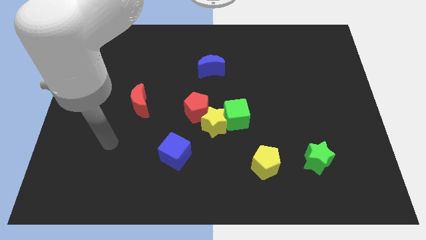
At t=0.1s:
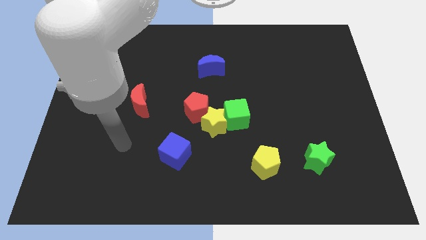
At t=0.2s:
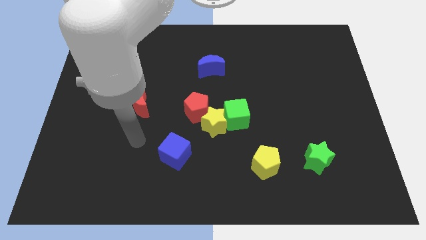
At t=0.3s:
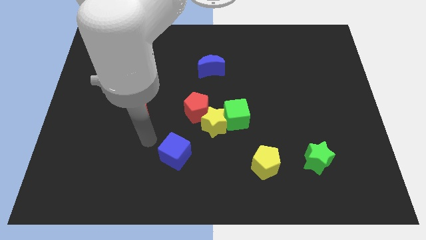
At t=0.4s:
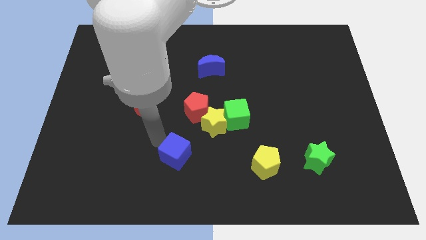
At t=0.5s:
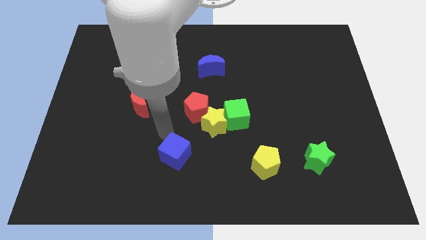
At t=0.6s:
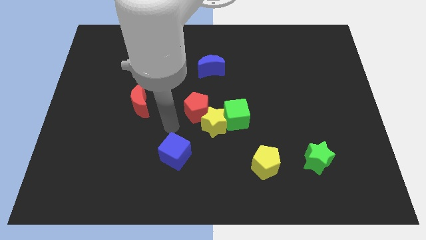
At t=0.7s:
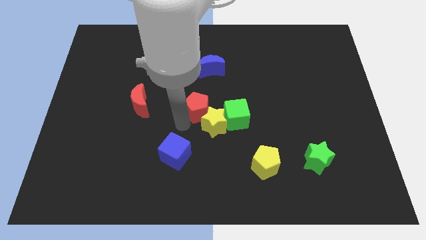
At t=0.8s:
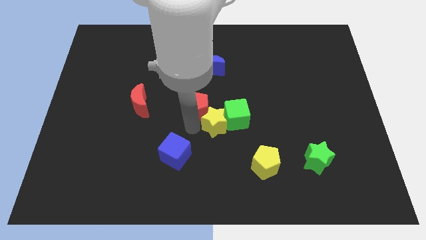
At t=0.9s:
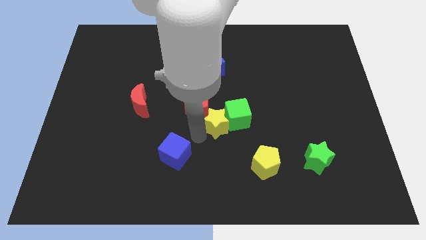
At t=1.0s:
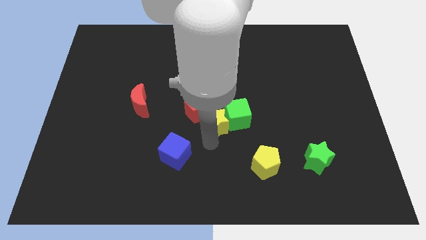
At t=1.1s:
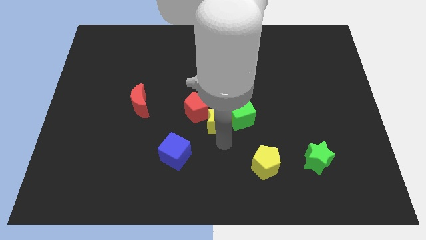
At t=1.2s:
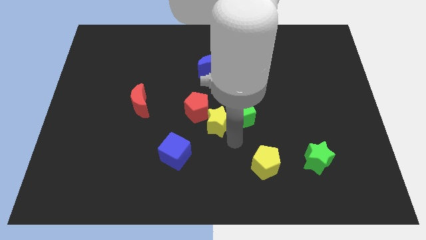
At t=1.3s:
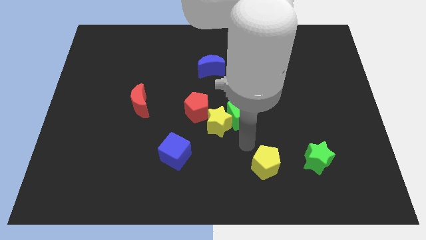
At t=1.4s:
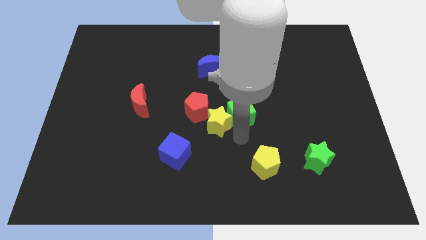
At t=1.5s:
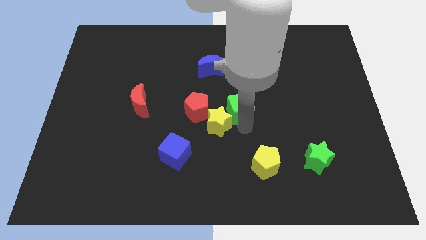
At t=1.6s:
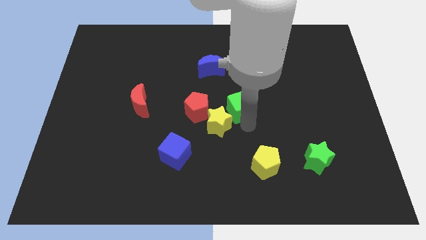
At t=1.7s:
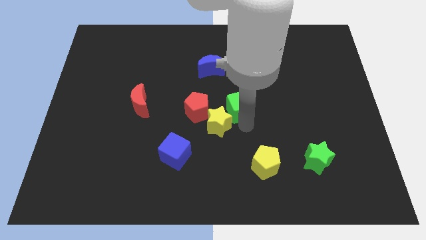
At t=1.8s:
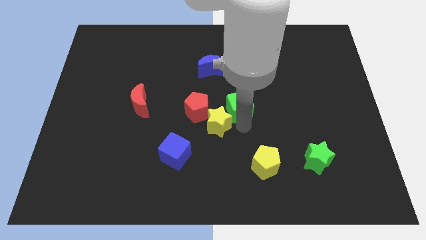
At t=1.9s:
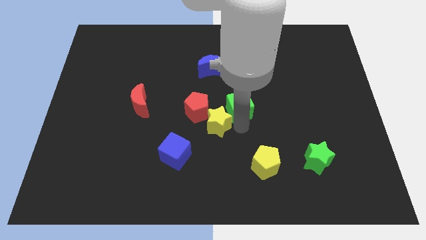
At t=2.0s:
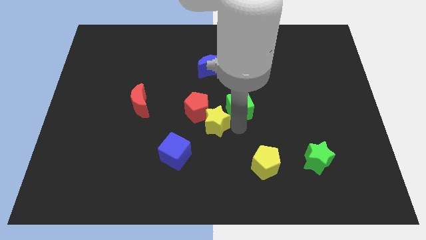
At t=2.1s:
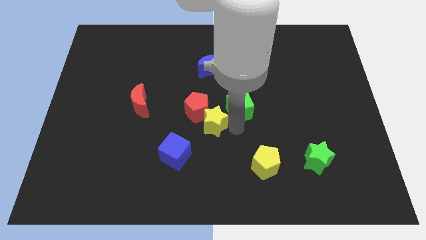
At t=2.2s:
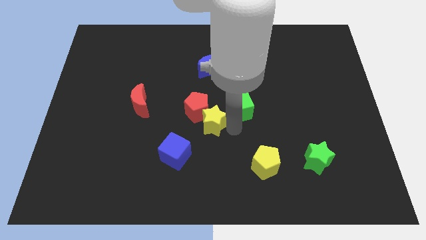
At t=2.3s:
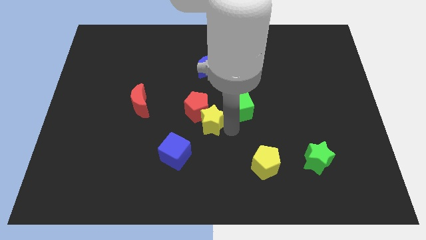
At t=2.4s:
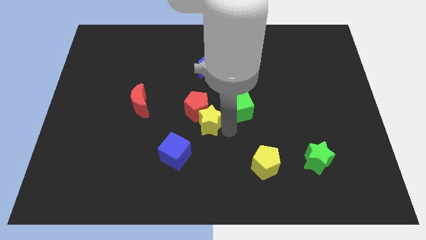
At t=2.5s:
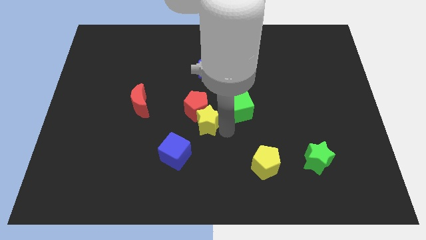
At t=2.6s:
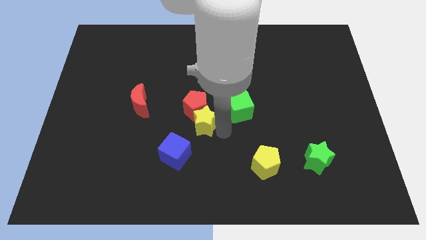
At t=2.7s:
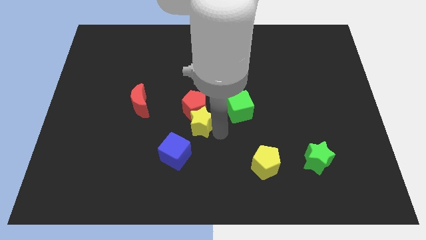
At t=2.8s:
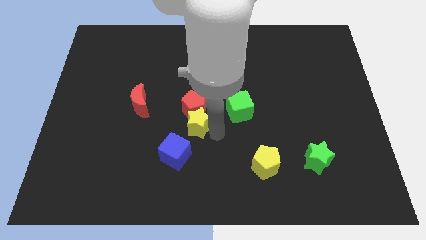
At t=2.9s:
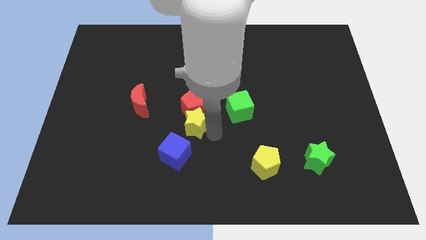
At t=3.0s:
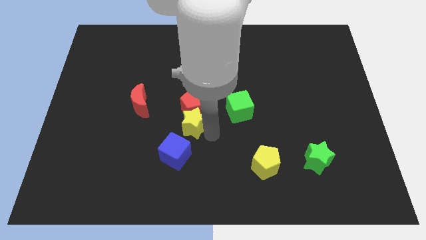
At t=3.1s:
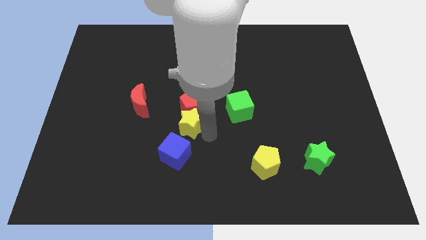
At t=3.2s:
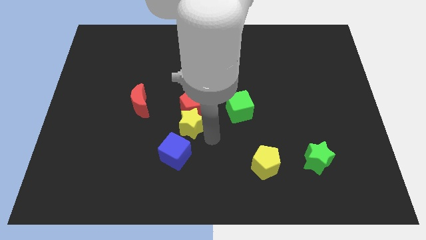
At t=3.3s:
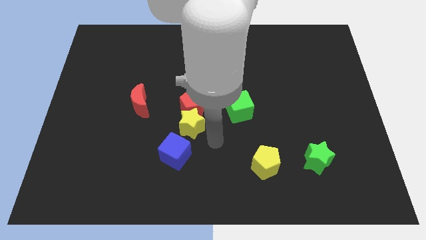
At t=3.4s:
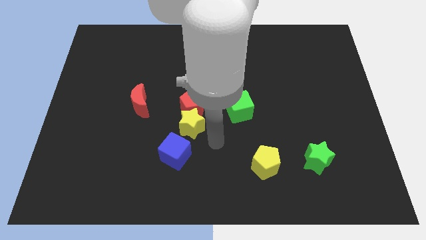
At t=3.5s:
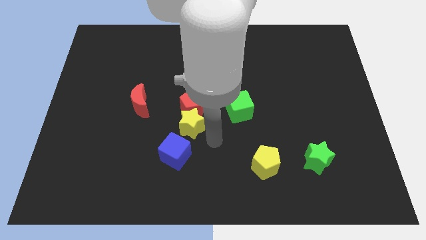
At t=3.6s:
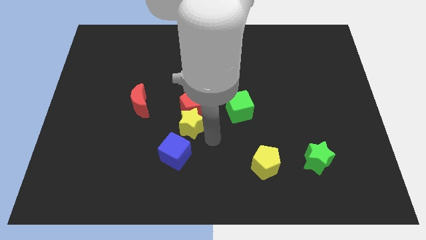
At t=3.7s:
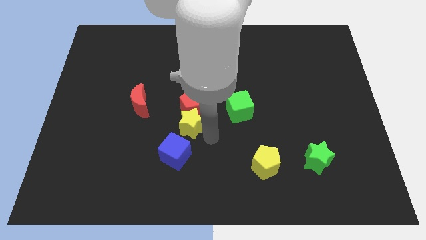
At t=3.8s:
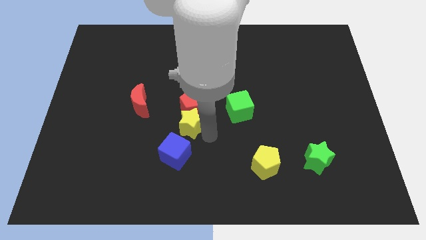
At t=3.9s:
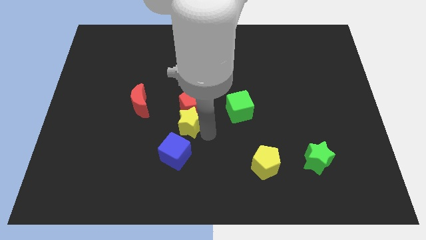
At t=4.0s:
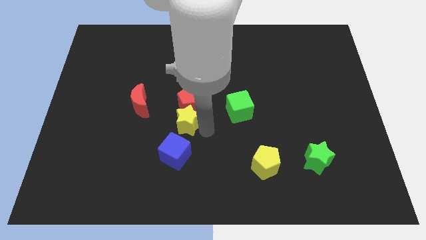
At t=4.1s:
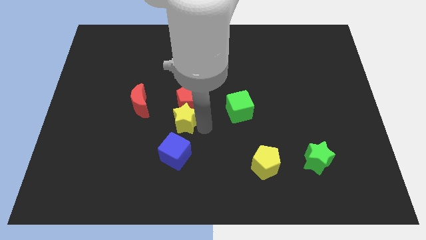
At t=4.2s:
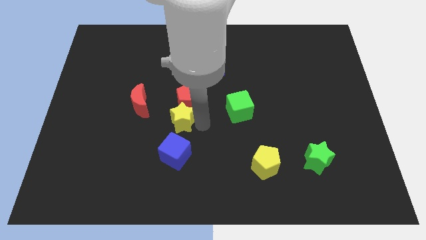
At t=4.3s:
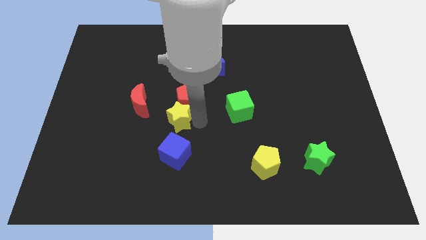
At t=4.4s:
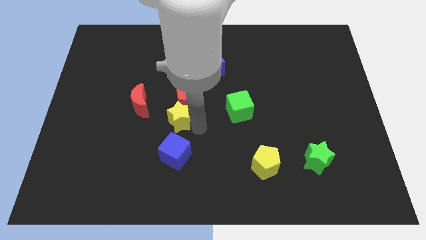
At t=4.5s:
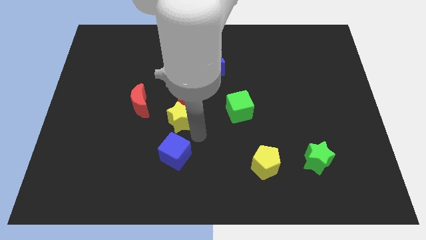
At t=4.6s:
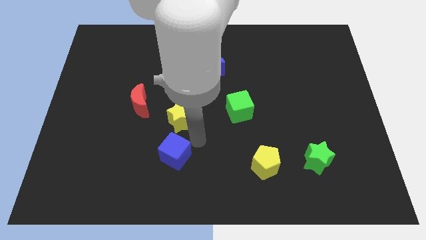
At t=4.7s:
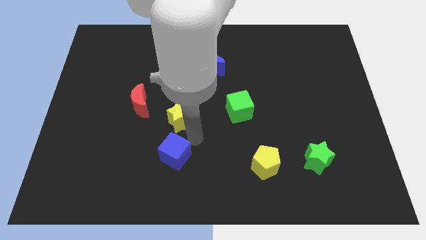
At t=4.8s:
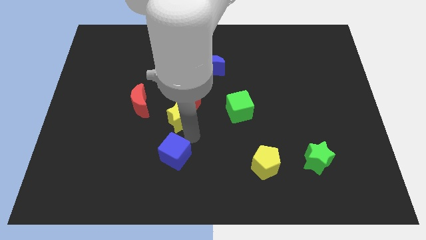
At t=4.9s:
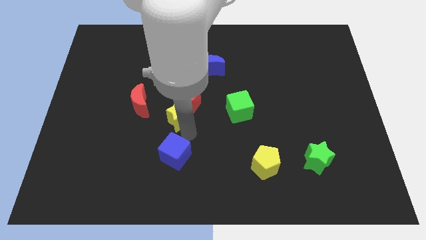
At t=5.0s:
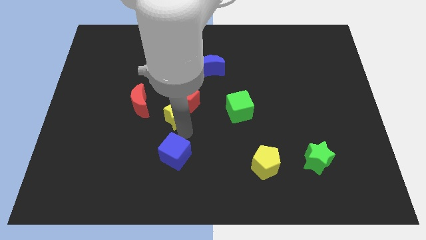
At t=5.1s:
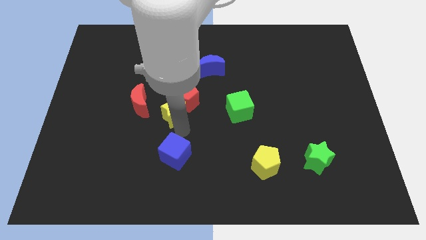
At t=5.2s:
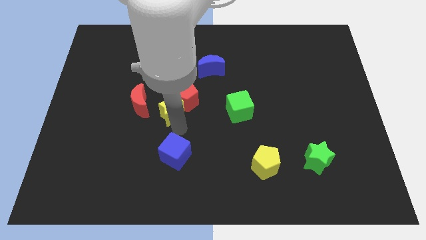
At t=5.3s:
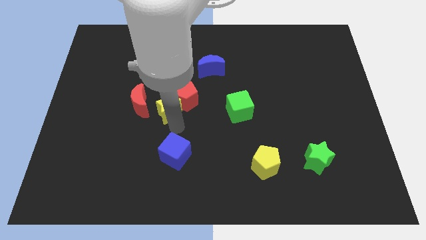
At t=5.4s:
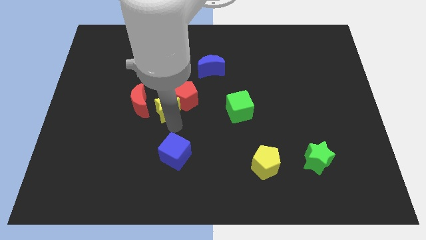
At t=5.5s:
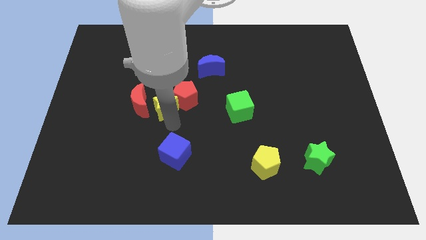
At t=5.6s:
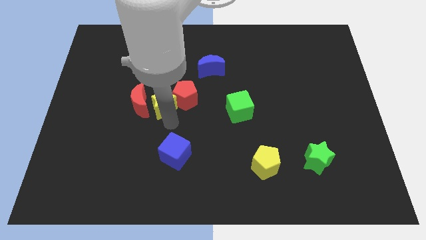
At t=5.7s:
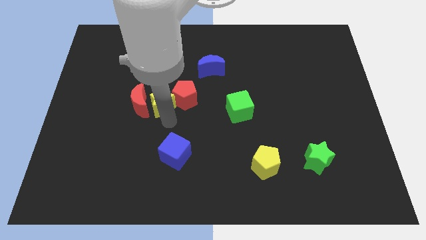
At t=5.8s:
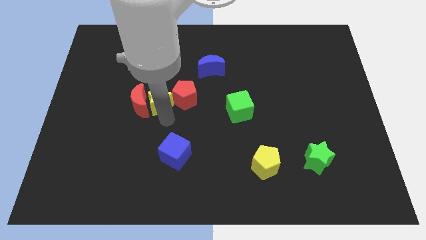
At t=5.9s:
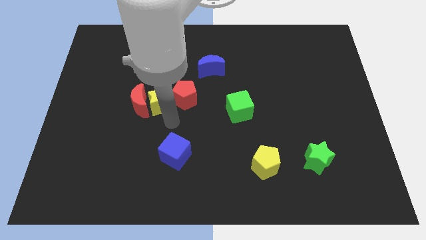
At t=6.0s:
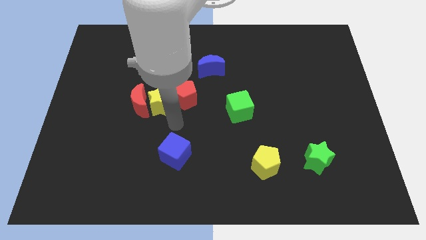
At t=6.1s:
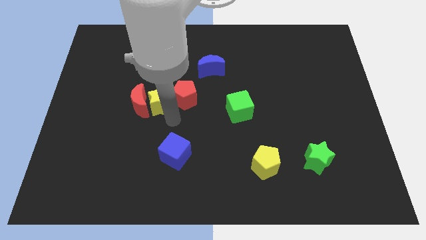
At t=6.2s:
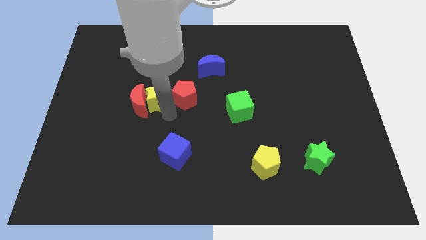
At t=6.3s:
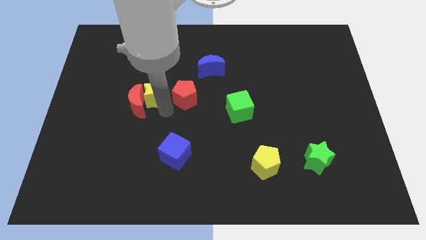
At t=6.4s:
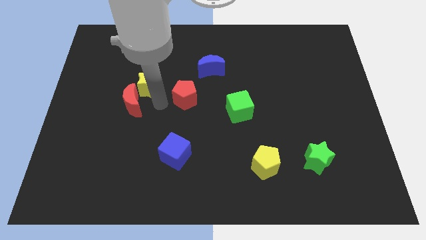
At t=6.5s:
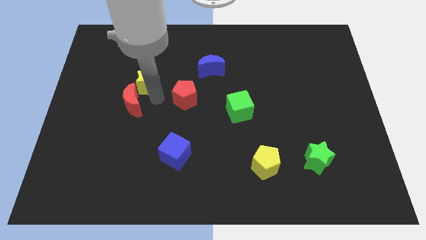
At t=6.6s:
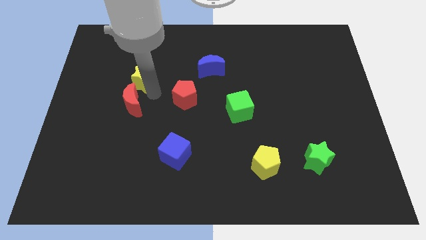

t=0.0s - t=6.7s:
move the yellow star up and left

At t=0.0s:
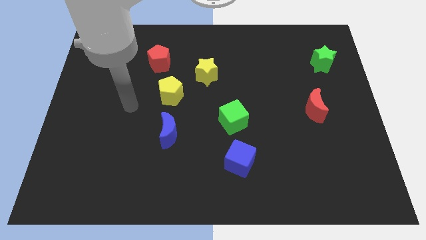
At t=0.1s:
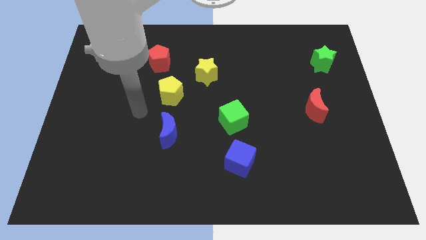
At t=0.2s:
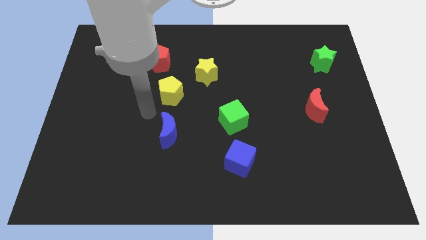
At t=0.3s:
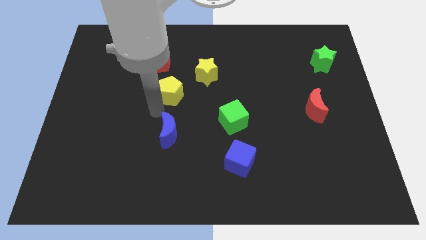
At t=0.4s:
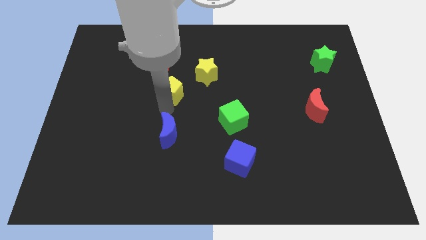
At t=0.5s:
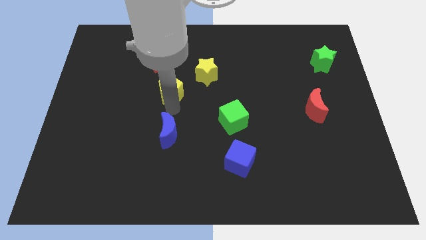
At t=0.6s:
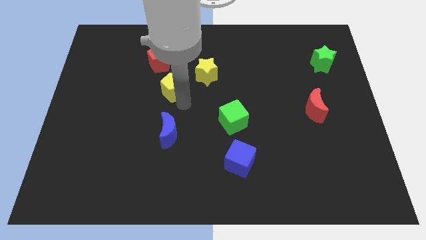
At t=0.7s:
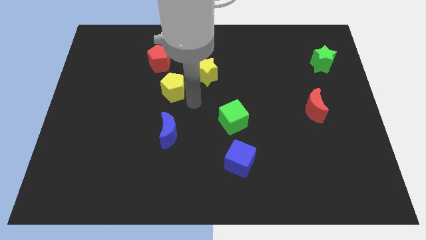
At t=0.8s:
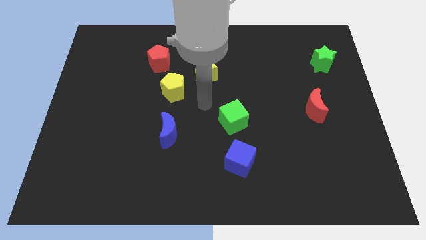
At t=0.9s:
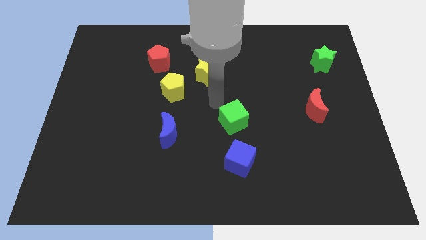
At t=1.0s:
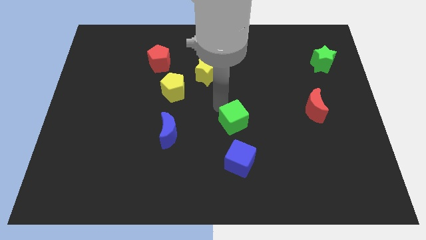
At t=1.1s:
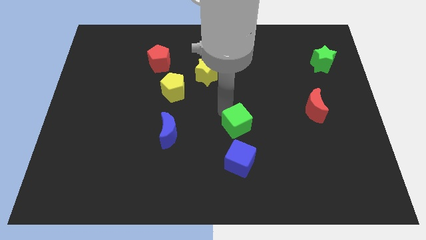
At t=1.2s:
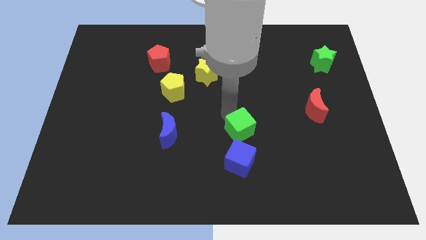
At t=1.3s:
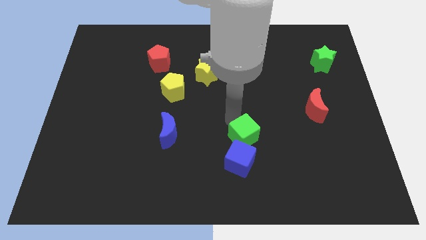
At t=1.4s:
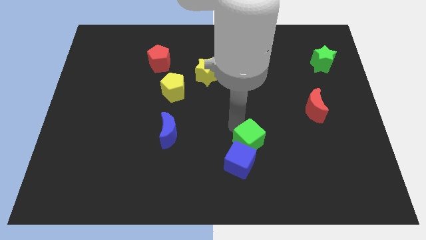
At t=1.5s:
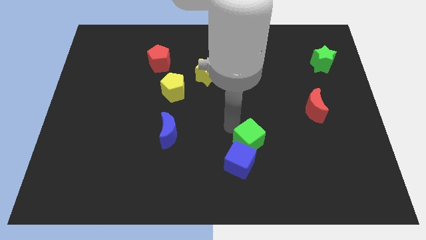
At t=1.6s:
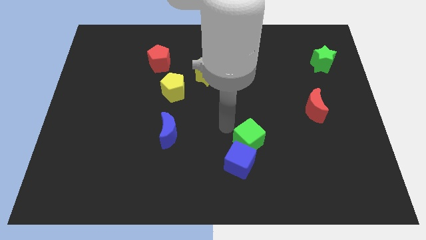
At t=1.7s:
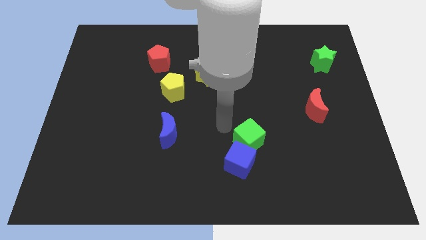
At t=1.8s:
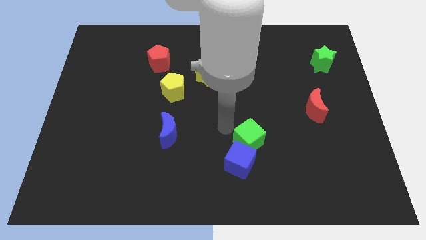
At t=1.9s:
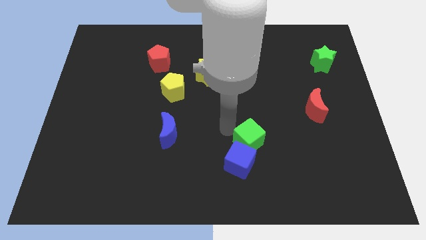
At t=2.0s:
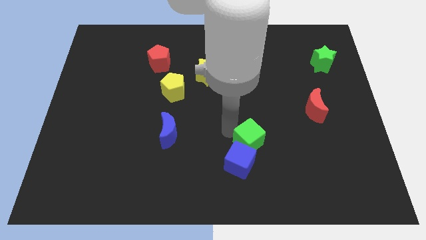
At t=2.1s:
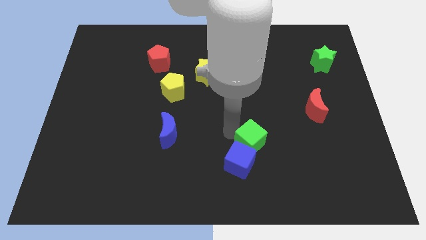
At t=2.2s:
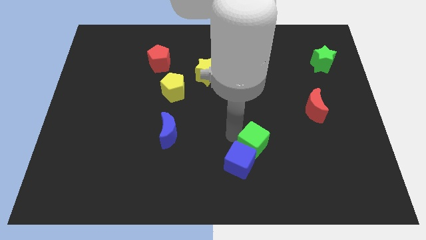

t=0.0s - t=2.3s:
slightly slide the green cube down and to the right diagonally
